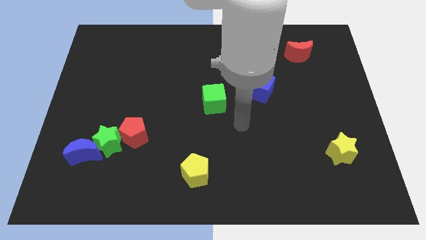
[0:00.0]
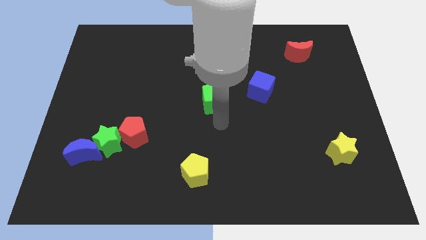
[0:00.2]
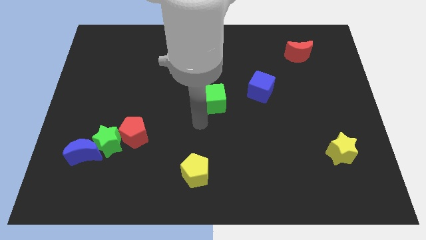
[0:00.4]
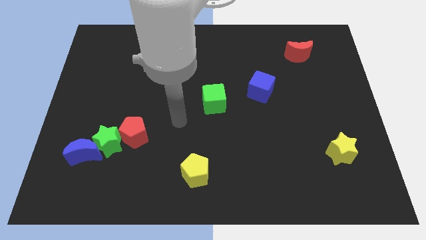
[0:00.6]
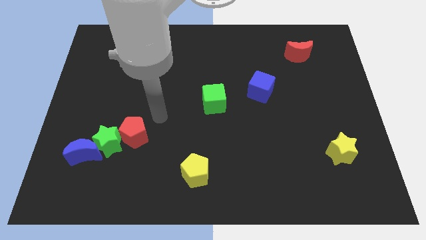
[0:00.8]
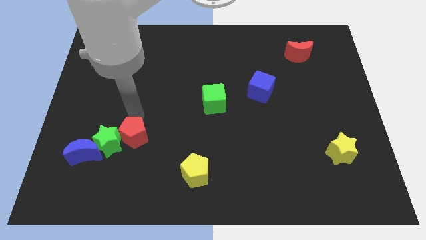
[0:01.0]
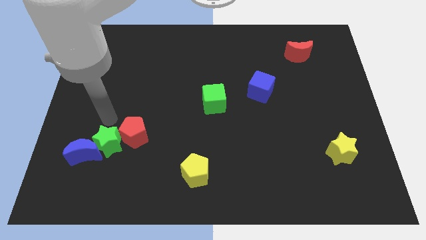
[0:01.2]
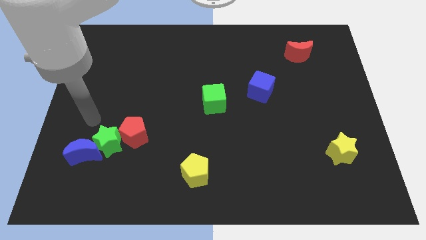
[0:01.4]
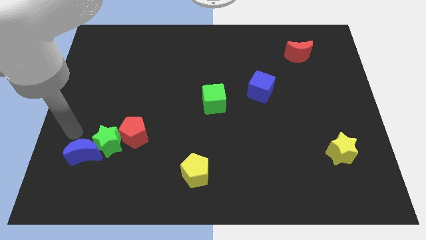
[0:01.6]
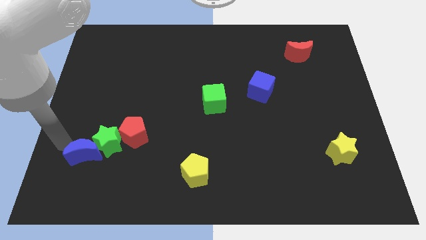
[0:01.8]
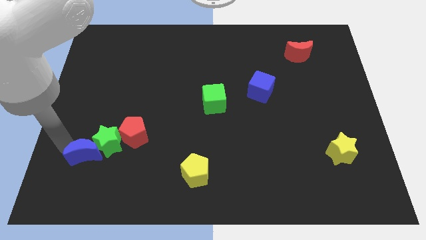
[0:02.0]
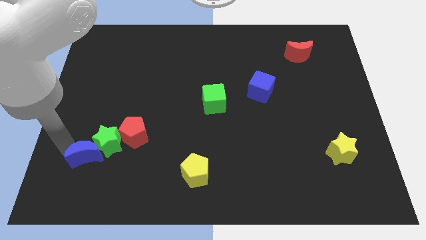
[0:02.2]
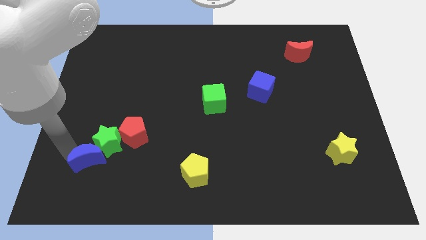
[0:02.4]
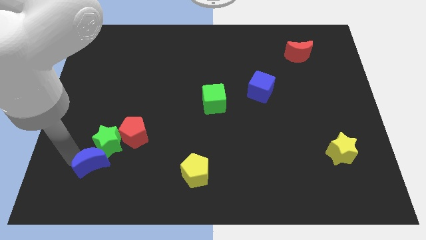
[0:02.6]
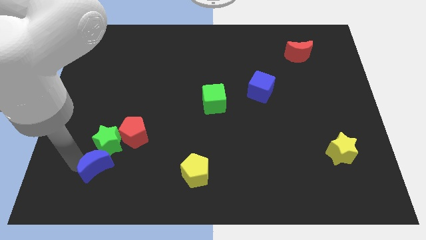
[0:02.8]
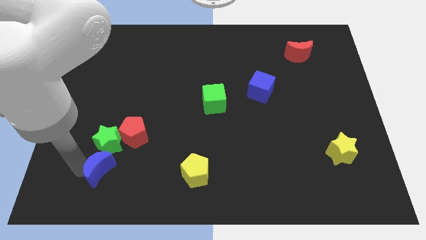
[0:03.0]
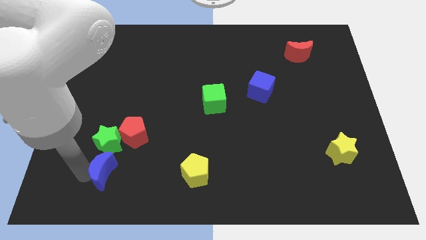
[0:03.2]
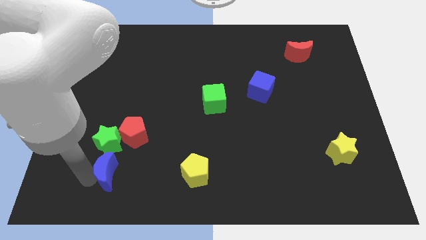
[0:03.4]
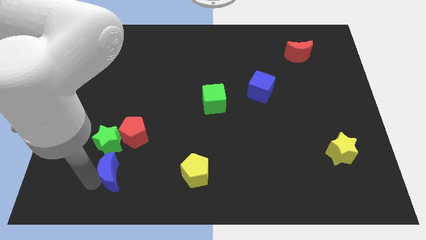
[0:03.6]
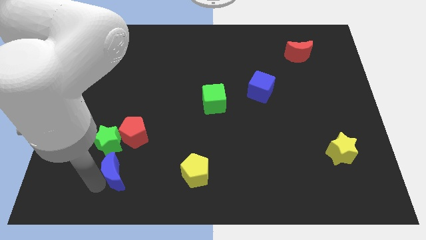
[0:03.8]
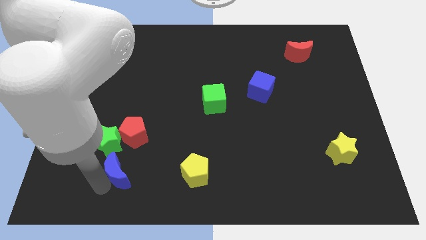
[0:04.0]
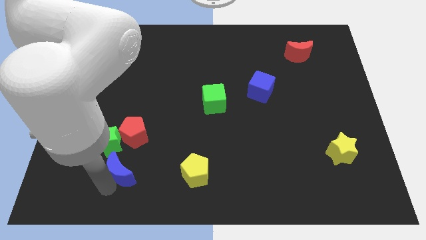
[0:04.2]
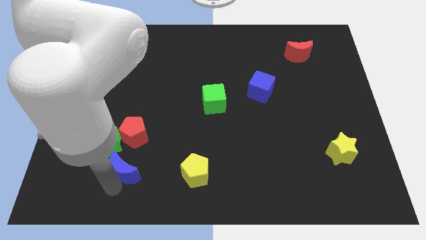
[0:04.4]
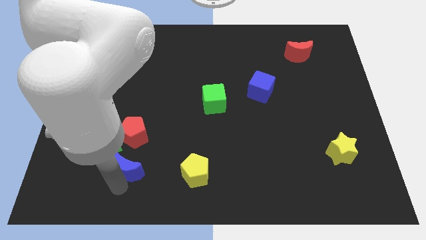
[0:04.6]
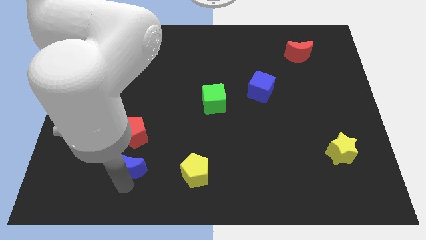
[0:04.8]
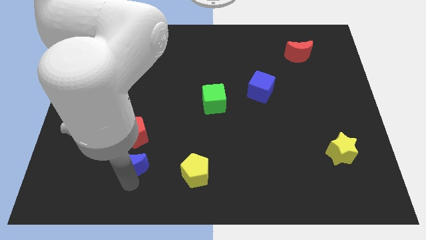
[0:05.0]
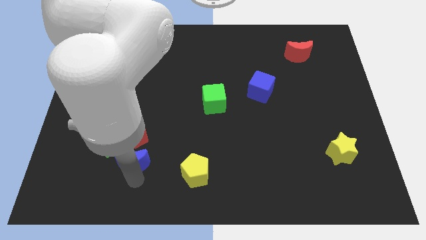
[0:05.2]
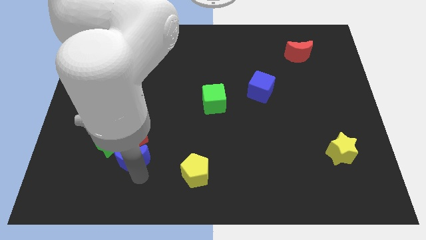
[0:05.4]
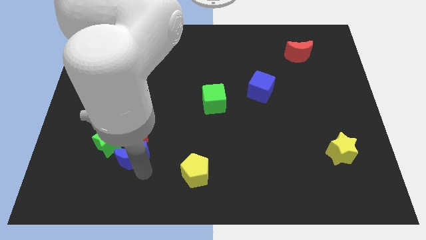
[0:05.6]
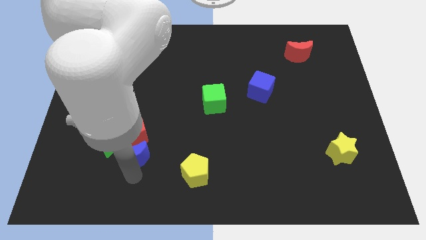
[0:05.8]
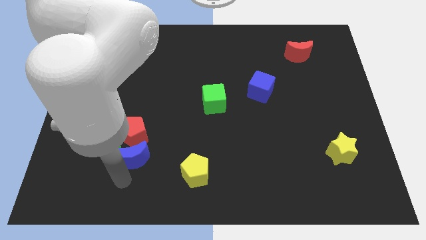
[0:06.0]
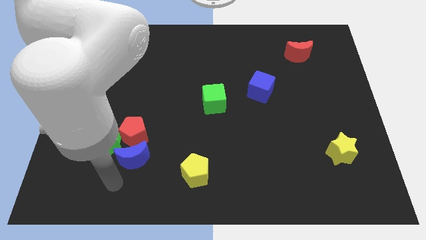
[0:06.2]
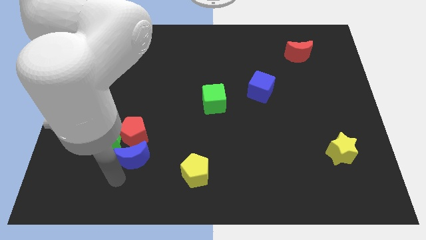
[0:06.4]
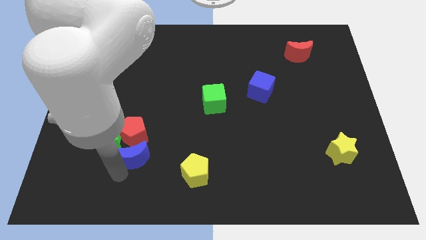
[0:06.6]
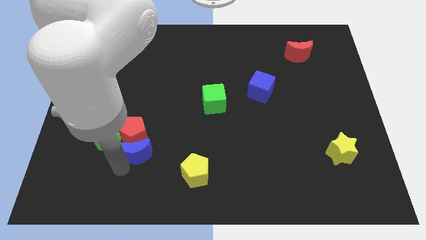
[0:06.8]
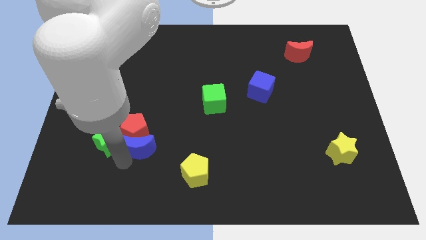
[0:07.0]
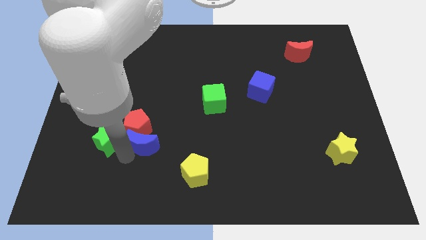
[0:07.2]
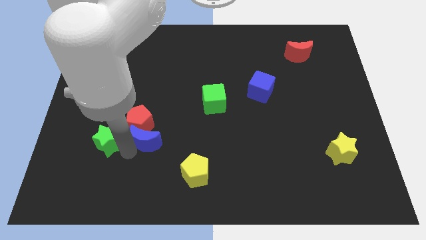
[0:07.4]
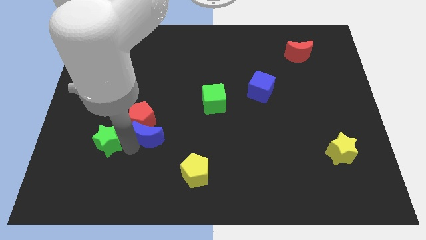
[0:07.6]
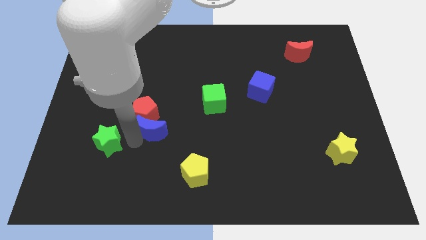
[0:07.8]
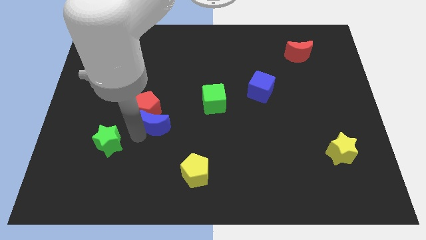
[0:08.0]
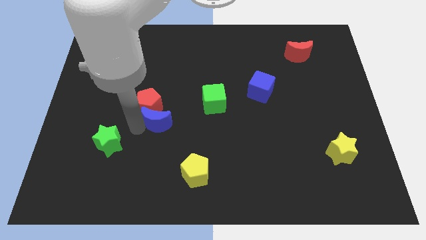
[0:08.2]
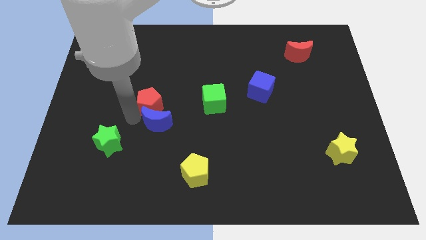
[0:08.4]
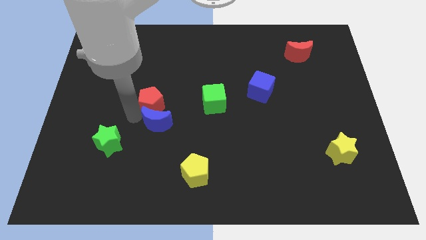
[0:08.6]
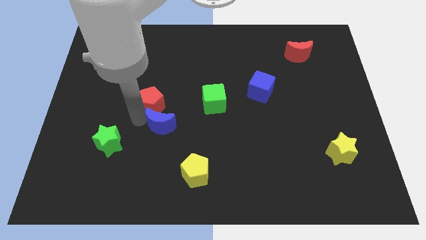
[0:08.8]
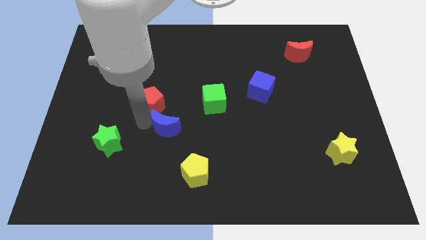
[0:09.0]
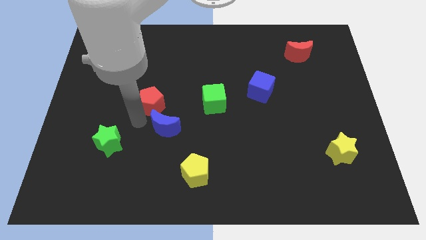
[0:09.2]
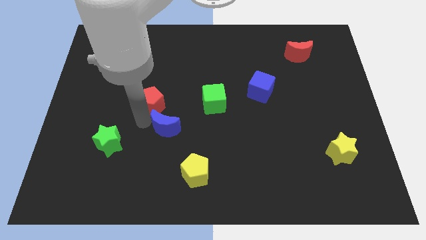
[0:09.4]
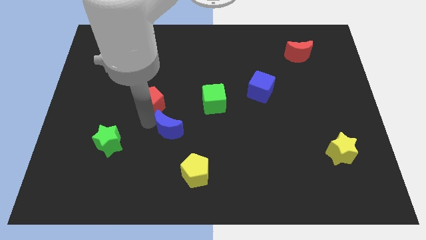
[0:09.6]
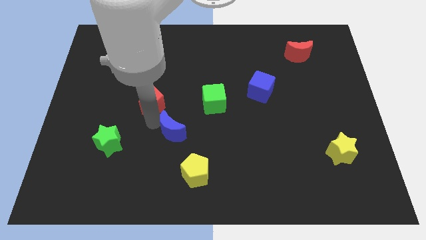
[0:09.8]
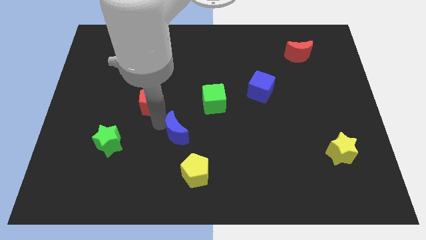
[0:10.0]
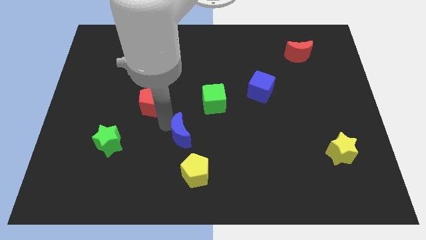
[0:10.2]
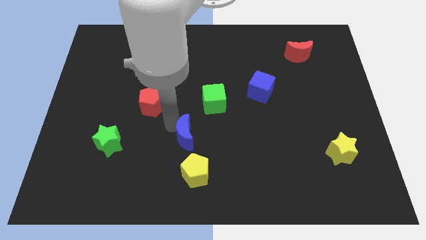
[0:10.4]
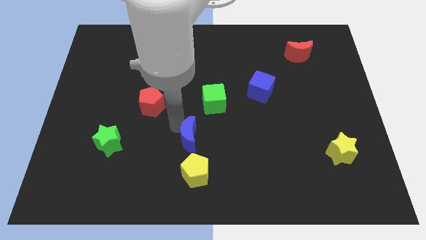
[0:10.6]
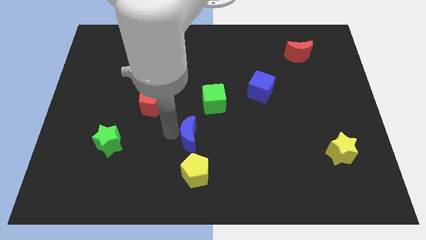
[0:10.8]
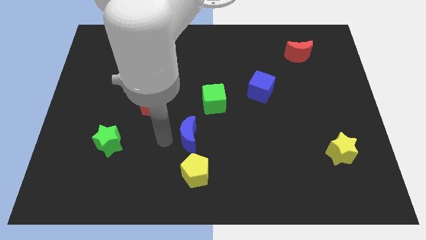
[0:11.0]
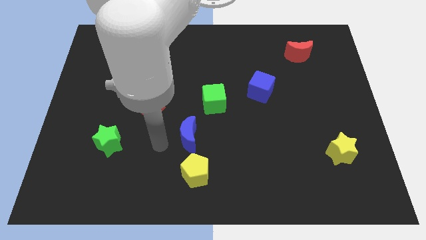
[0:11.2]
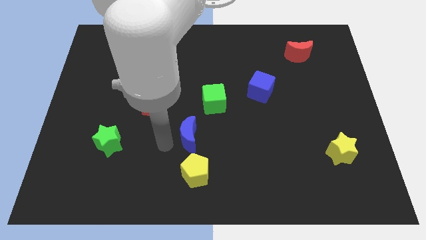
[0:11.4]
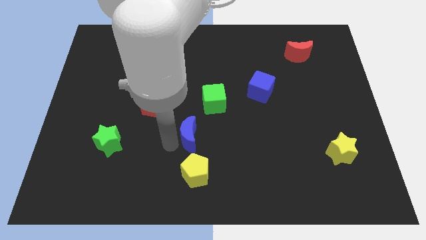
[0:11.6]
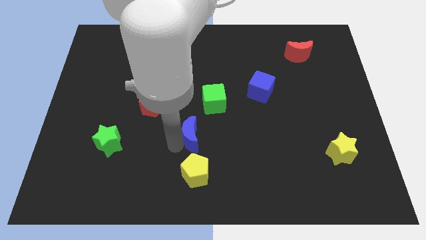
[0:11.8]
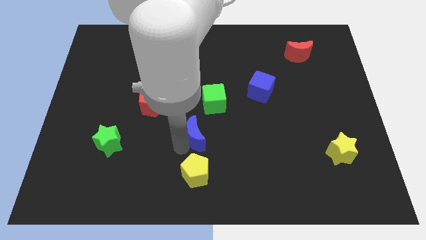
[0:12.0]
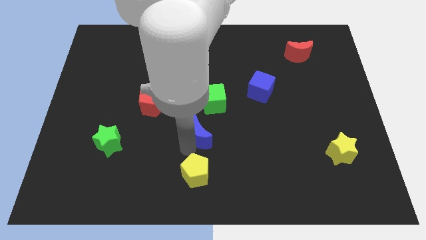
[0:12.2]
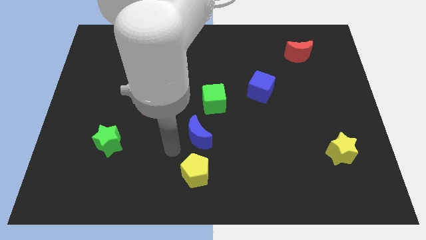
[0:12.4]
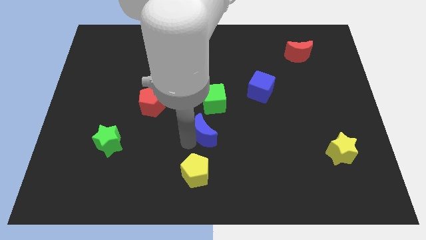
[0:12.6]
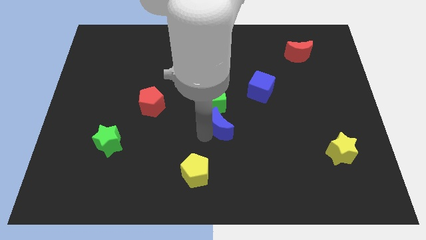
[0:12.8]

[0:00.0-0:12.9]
put the blue moon diagonally down and to the right of the green cube

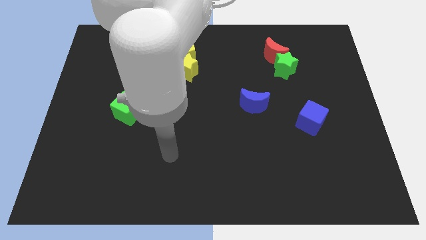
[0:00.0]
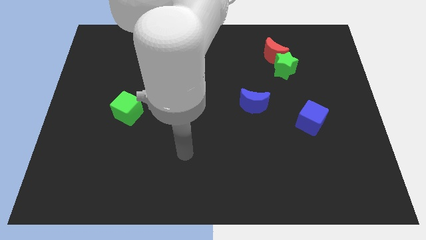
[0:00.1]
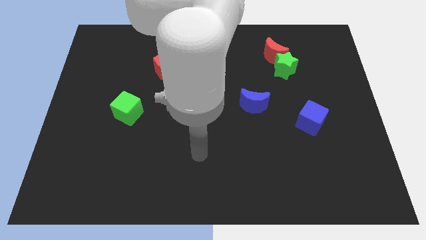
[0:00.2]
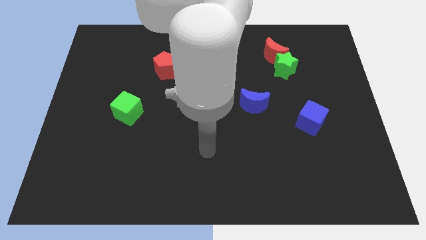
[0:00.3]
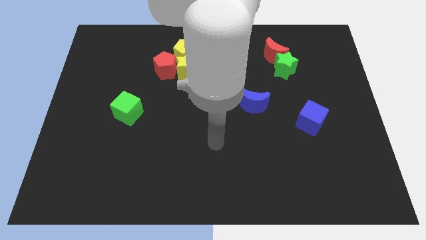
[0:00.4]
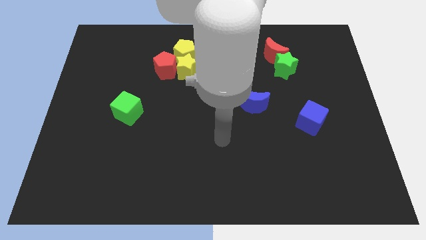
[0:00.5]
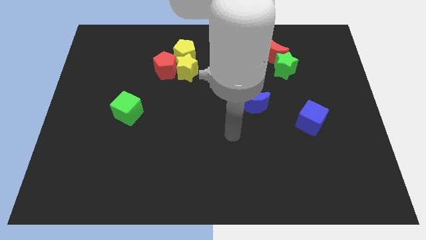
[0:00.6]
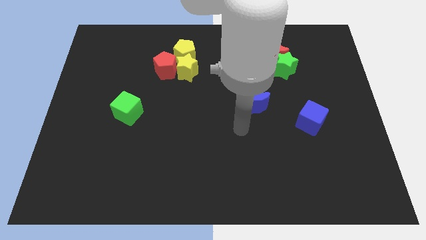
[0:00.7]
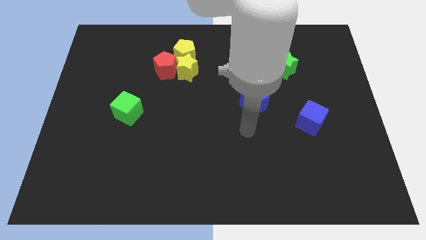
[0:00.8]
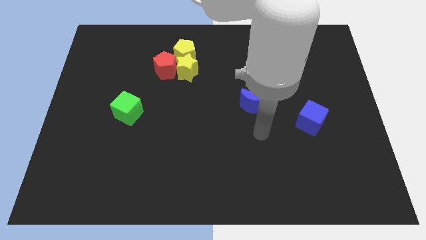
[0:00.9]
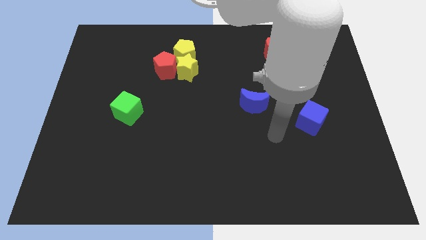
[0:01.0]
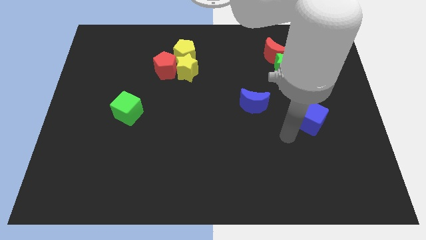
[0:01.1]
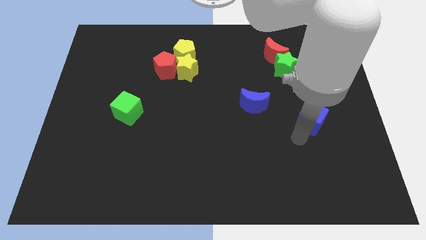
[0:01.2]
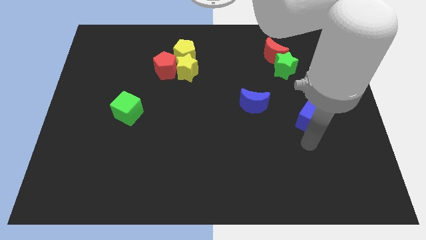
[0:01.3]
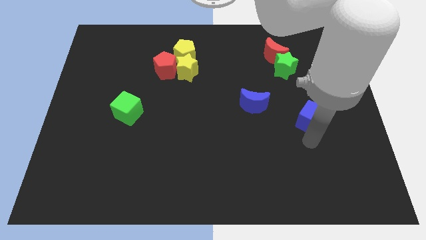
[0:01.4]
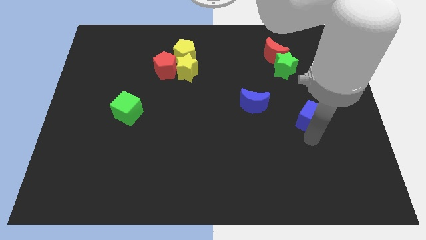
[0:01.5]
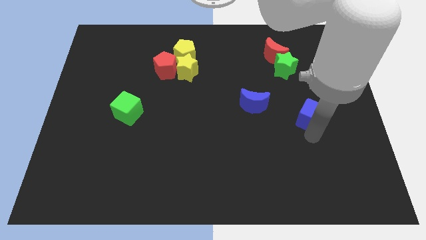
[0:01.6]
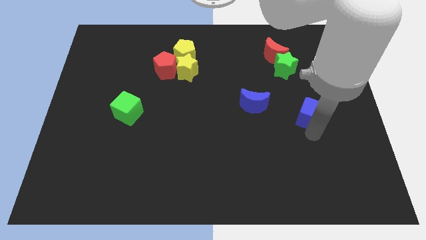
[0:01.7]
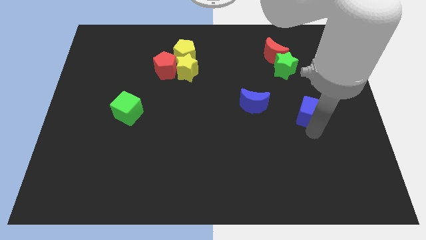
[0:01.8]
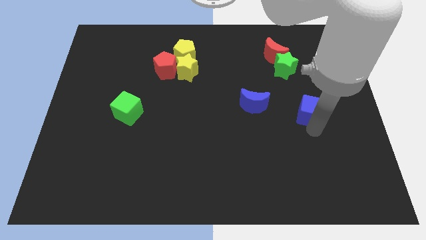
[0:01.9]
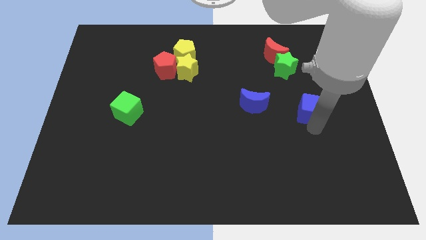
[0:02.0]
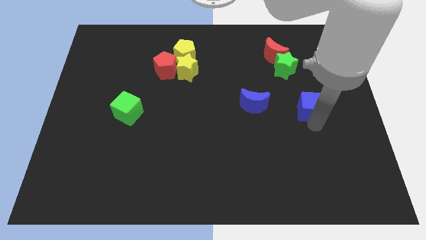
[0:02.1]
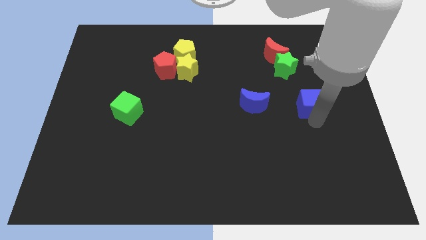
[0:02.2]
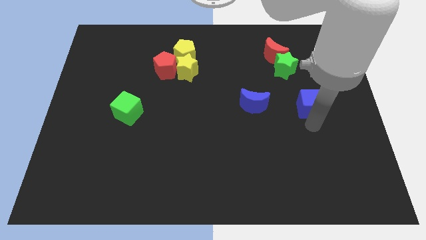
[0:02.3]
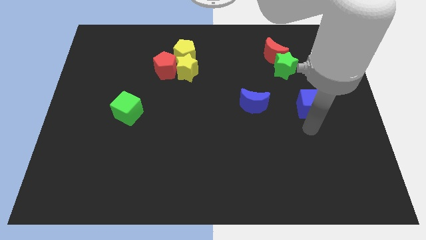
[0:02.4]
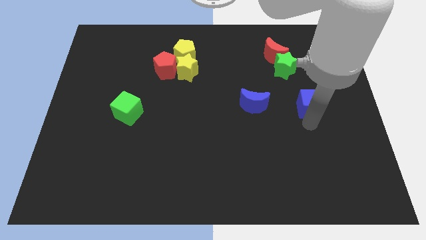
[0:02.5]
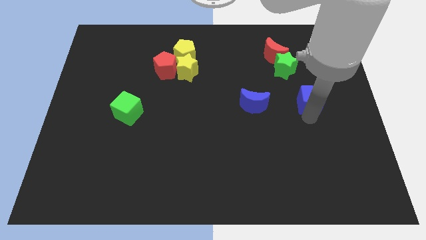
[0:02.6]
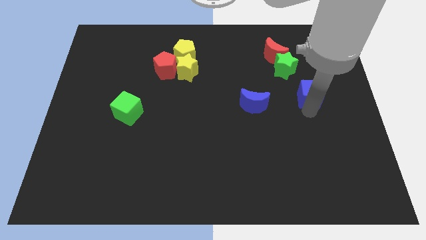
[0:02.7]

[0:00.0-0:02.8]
push the blue cube diagonally down and to the right of the green star
